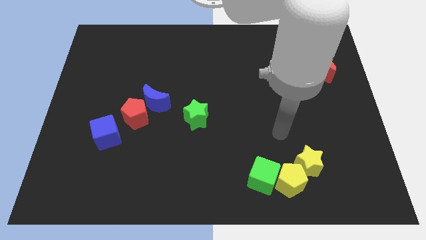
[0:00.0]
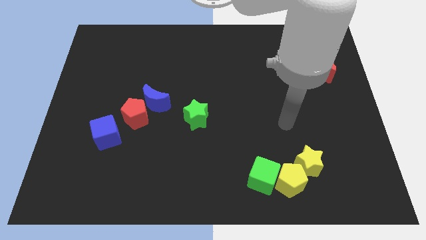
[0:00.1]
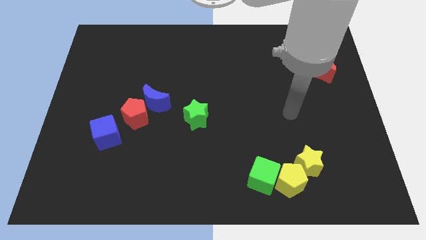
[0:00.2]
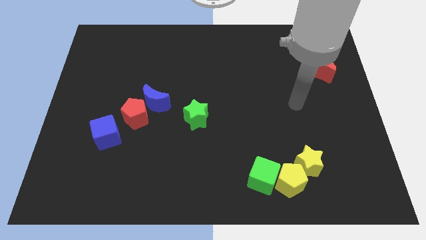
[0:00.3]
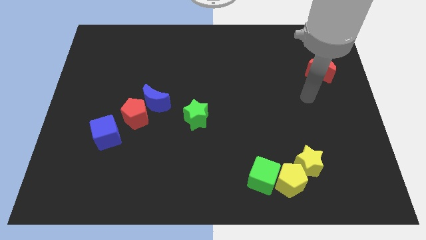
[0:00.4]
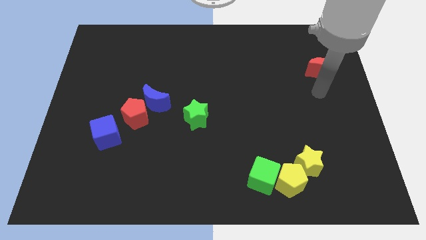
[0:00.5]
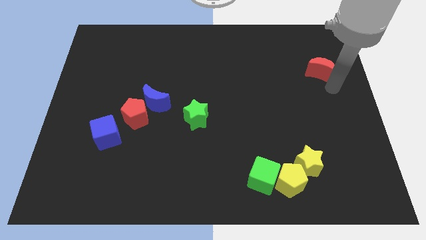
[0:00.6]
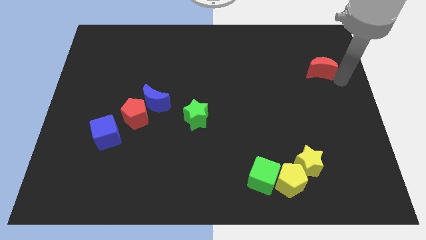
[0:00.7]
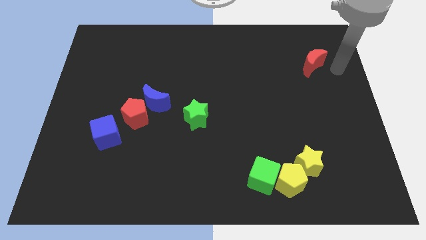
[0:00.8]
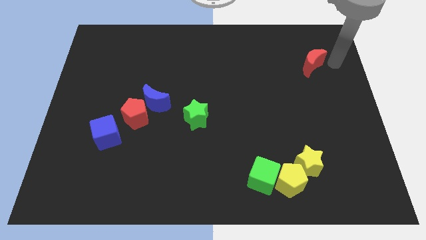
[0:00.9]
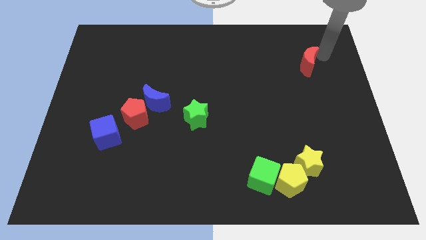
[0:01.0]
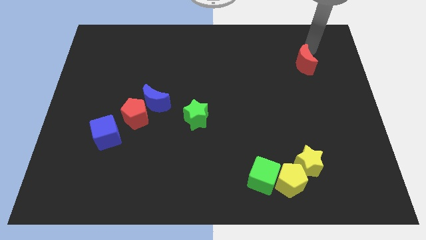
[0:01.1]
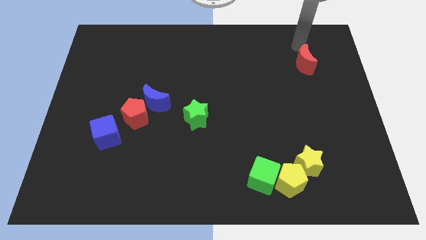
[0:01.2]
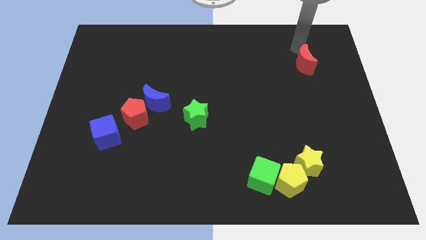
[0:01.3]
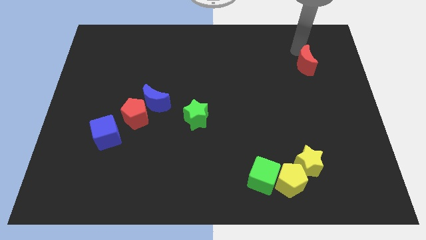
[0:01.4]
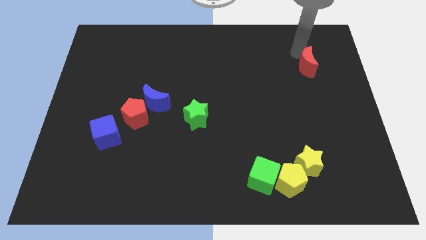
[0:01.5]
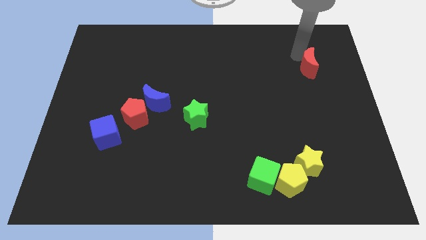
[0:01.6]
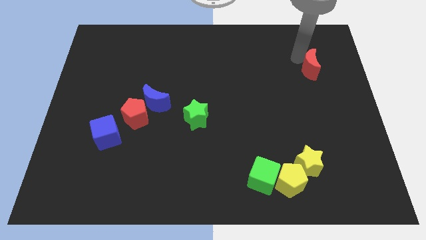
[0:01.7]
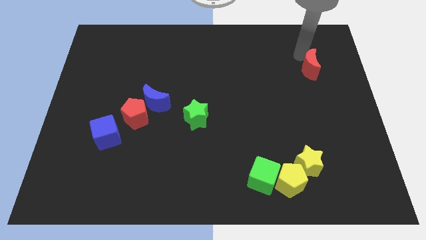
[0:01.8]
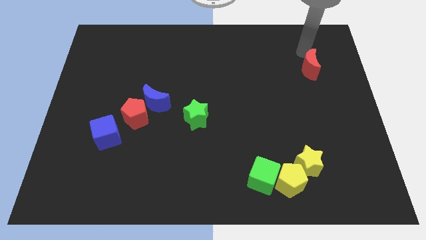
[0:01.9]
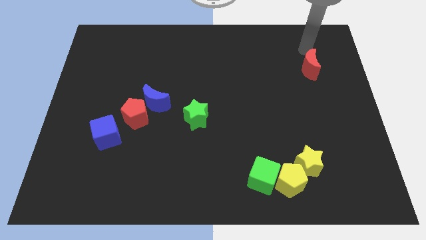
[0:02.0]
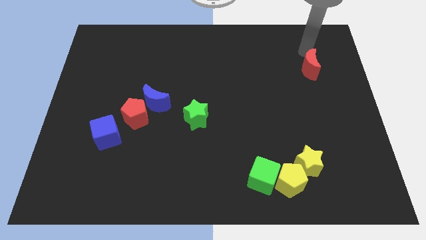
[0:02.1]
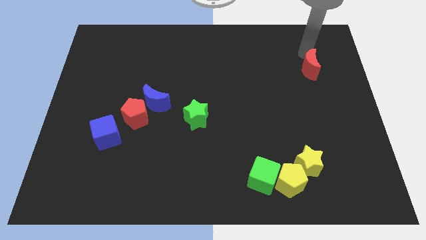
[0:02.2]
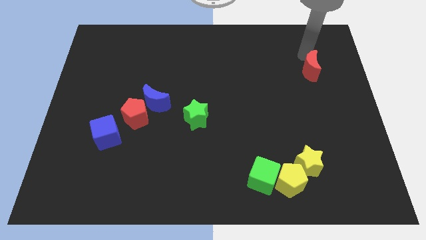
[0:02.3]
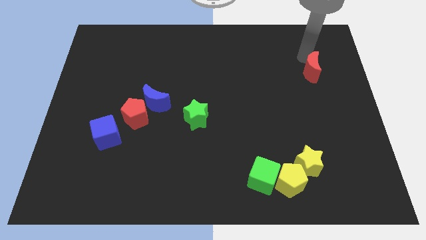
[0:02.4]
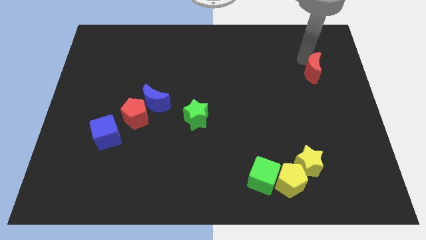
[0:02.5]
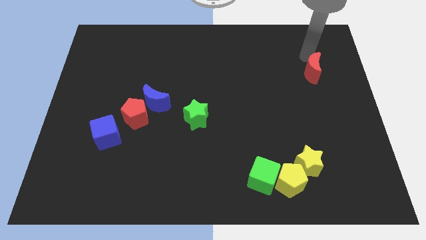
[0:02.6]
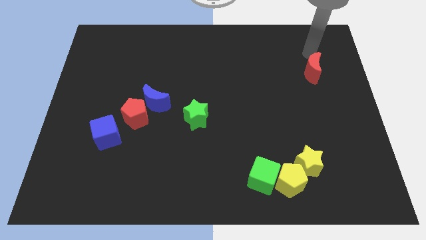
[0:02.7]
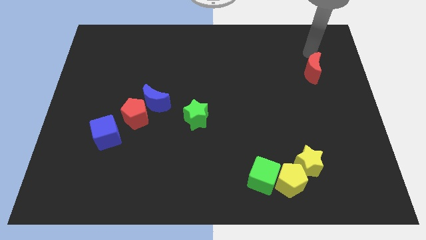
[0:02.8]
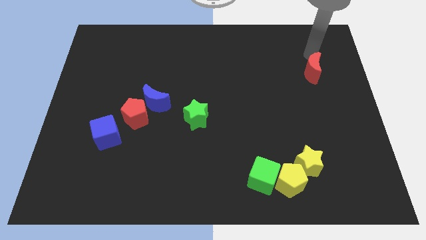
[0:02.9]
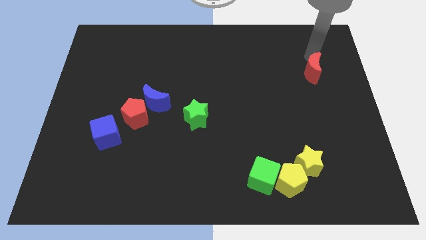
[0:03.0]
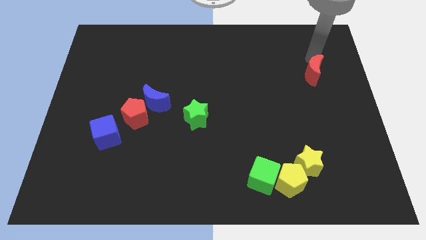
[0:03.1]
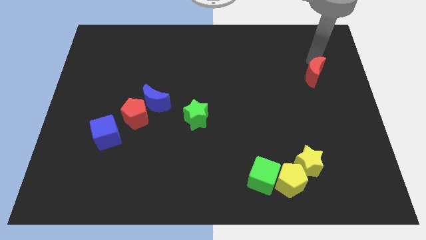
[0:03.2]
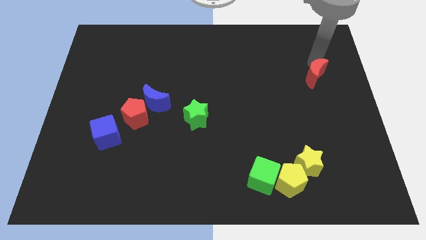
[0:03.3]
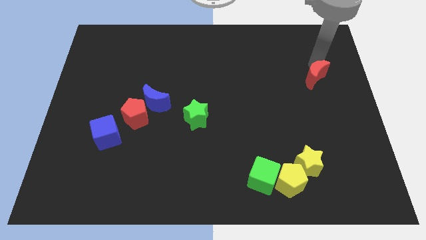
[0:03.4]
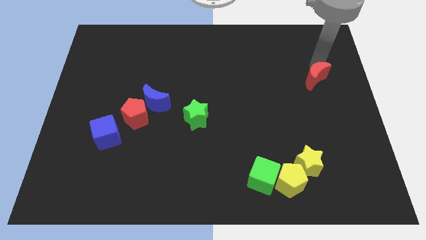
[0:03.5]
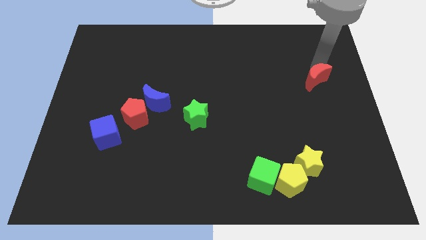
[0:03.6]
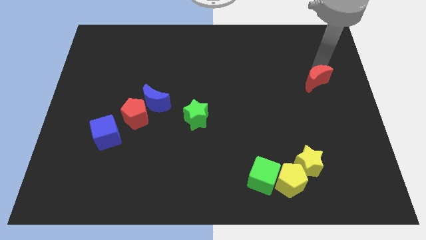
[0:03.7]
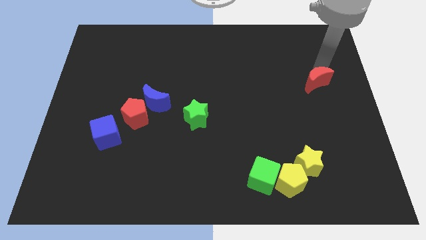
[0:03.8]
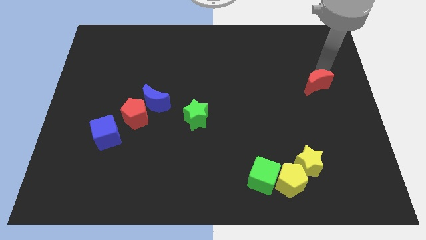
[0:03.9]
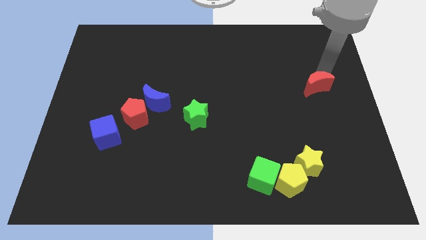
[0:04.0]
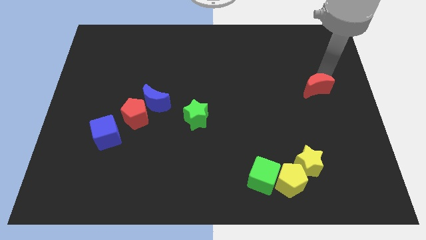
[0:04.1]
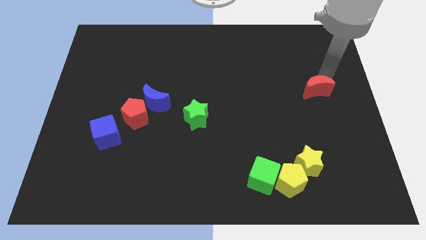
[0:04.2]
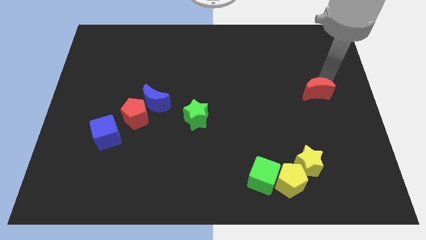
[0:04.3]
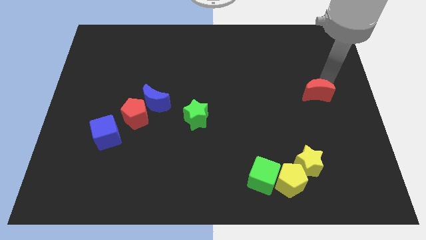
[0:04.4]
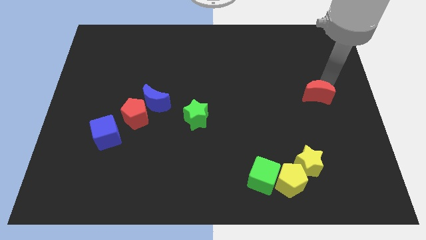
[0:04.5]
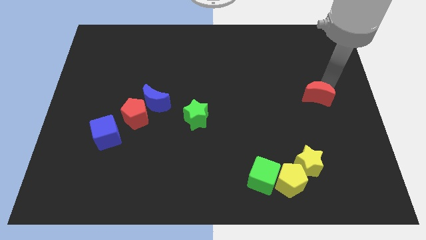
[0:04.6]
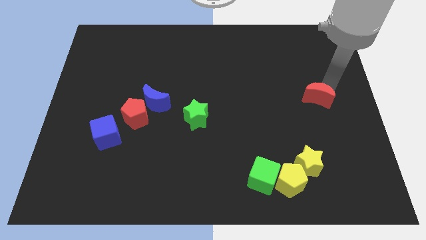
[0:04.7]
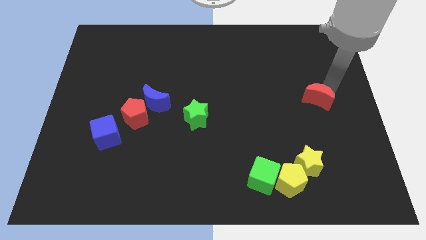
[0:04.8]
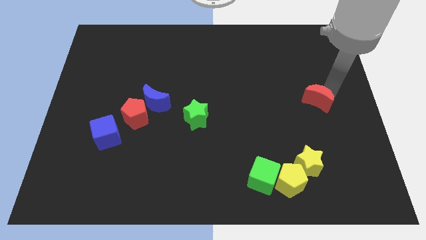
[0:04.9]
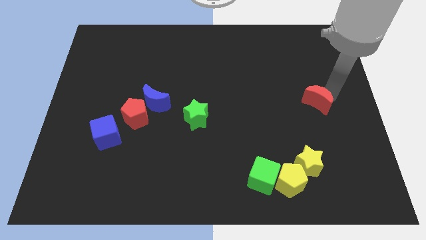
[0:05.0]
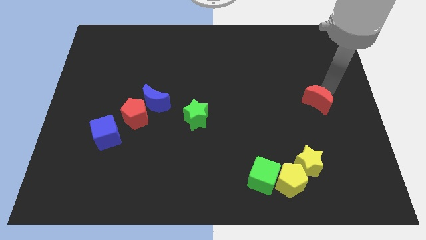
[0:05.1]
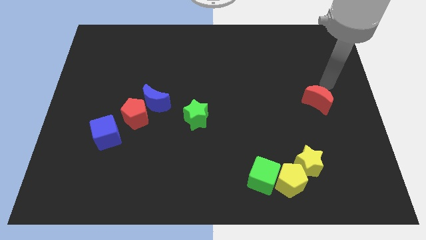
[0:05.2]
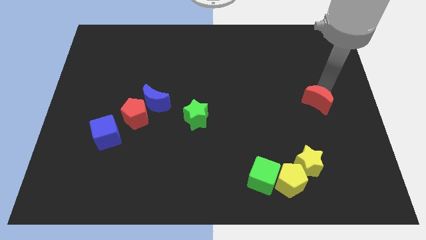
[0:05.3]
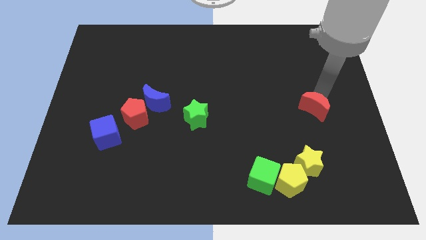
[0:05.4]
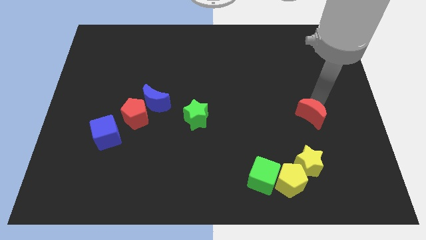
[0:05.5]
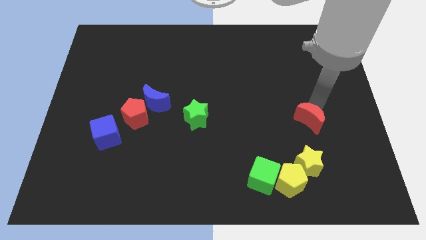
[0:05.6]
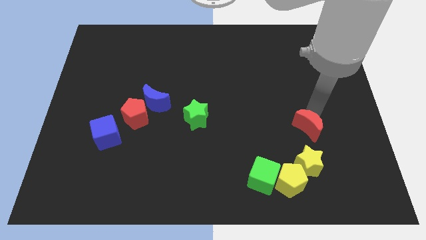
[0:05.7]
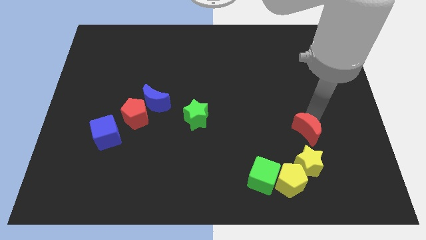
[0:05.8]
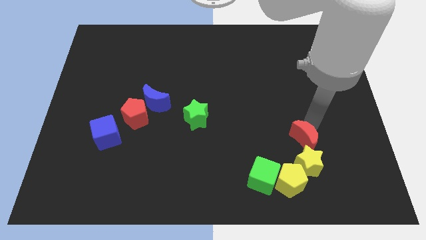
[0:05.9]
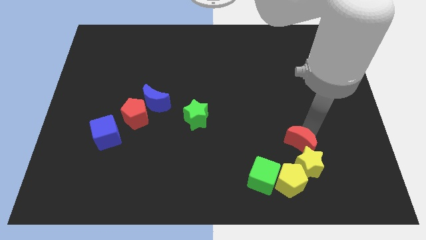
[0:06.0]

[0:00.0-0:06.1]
push the red moon to the top right side of the green cube
